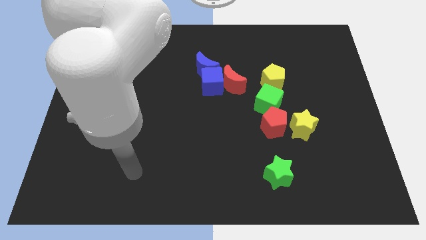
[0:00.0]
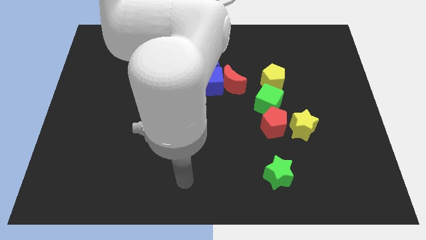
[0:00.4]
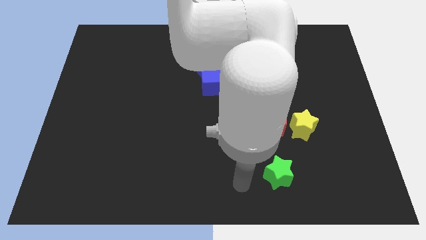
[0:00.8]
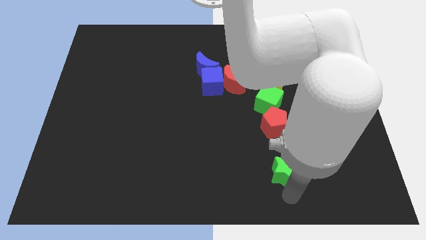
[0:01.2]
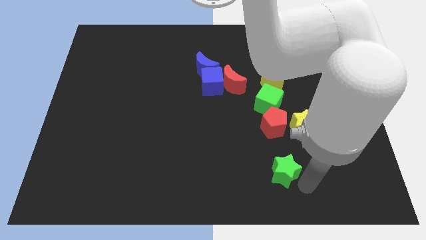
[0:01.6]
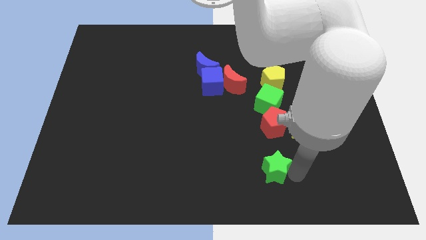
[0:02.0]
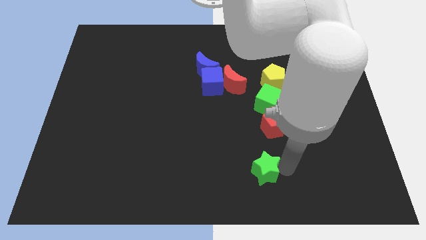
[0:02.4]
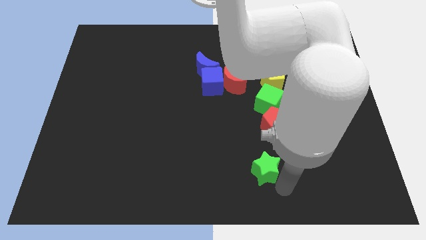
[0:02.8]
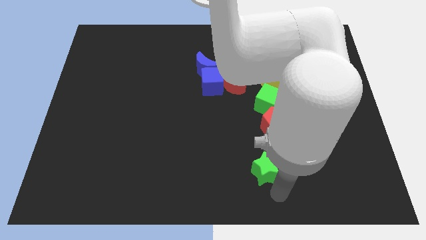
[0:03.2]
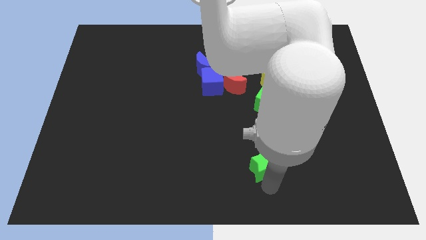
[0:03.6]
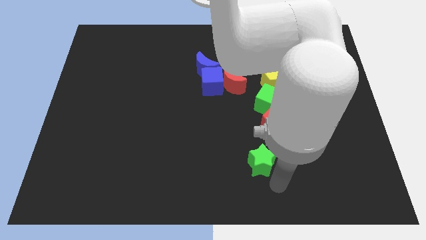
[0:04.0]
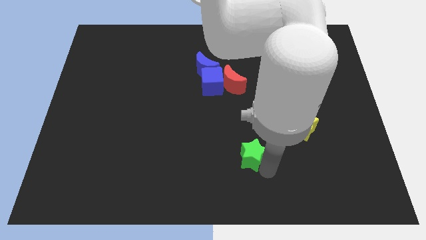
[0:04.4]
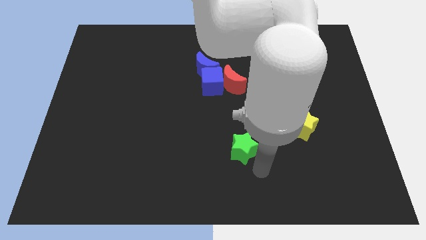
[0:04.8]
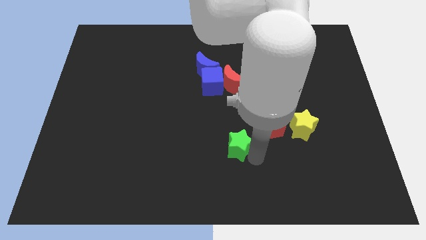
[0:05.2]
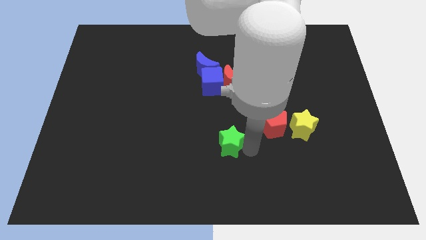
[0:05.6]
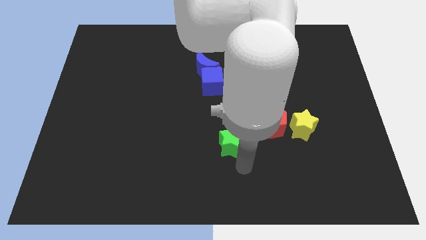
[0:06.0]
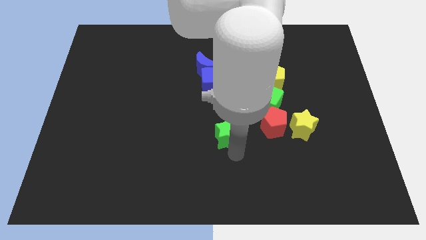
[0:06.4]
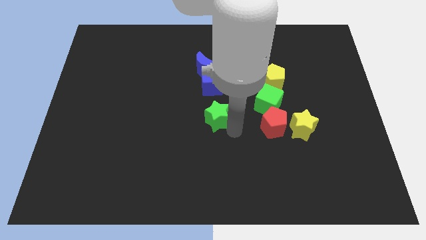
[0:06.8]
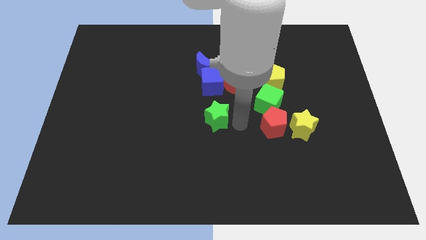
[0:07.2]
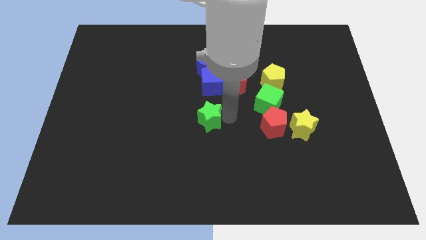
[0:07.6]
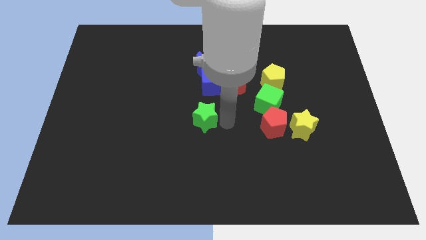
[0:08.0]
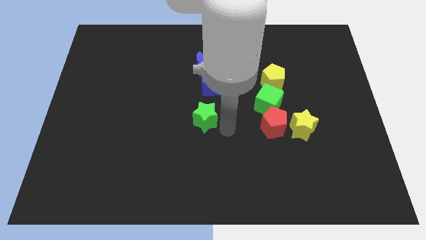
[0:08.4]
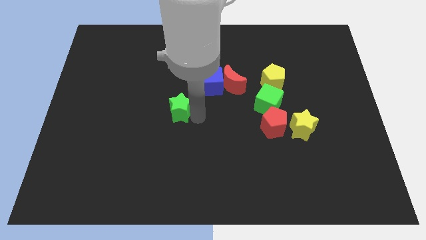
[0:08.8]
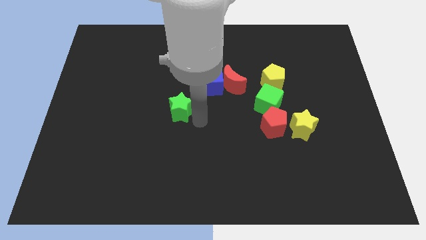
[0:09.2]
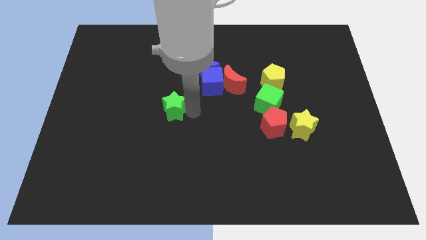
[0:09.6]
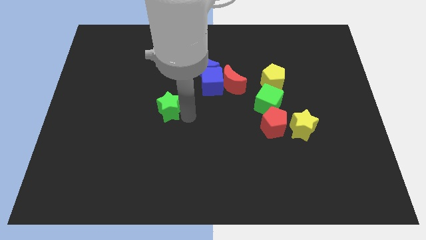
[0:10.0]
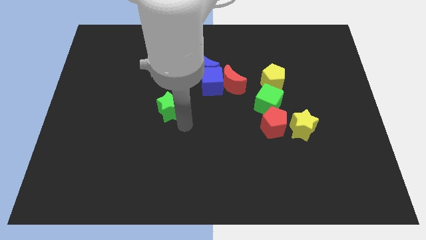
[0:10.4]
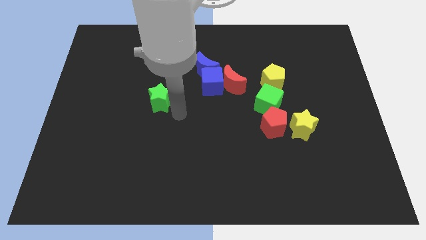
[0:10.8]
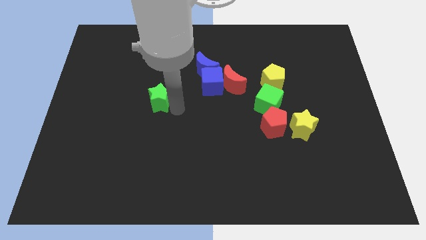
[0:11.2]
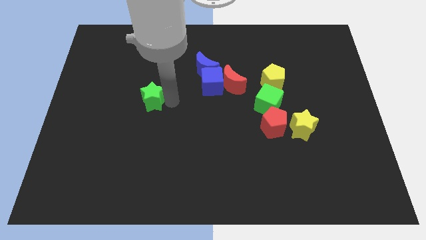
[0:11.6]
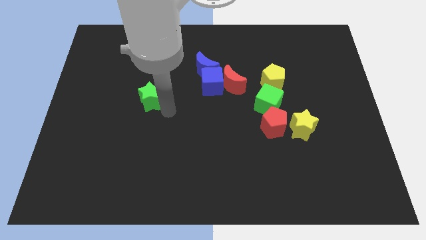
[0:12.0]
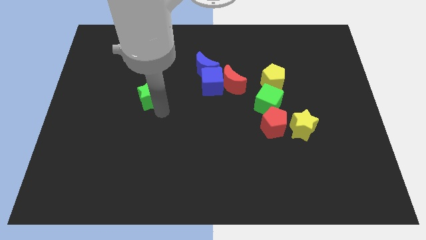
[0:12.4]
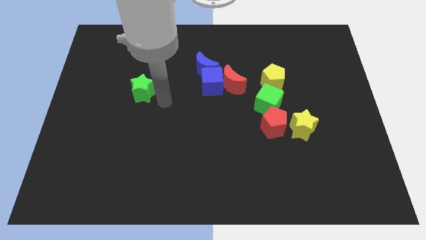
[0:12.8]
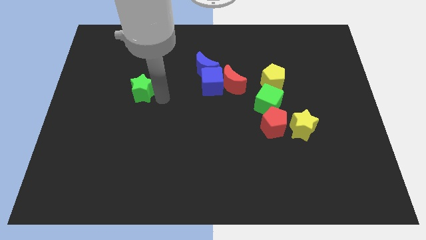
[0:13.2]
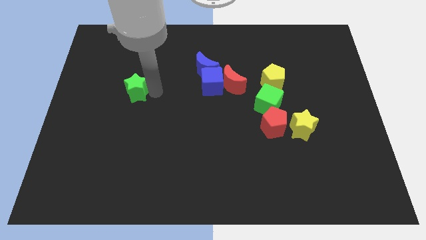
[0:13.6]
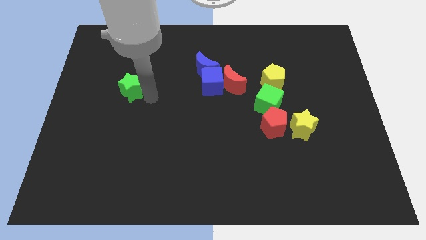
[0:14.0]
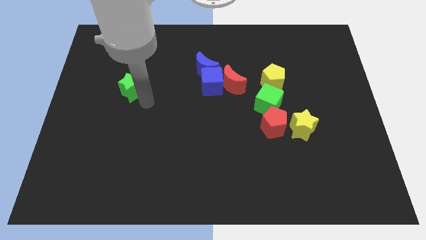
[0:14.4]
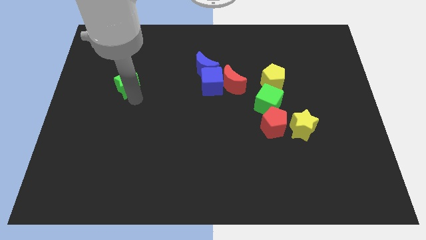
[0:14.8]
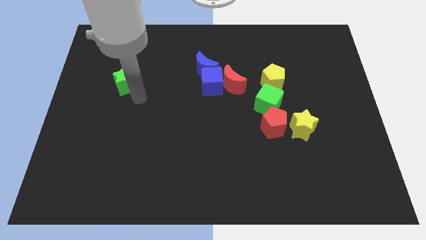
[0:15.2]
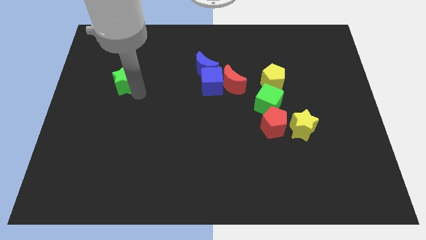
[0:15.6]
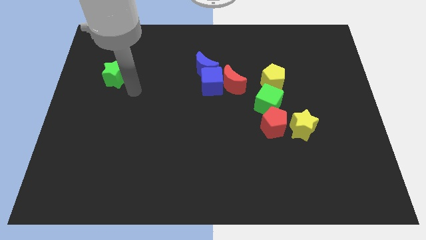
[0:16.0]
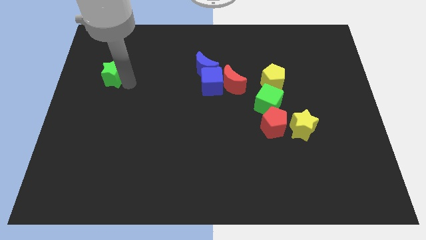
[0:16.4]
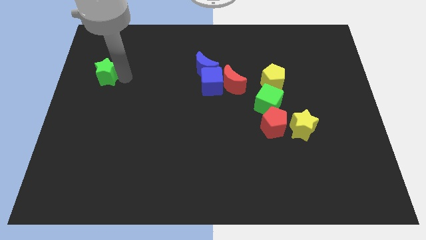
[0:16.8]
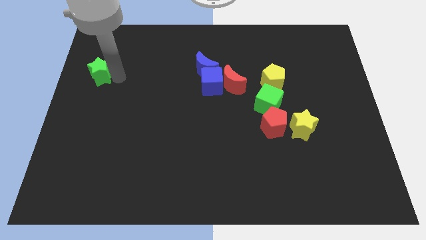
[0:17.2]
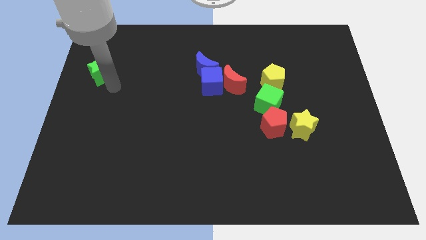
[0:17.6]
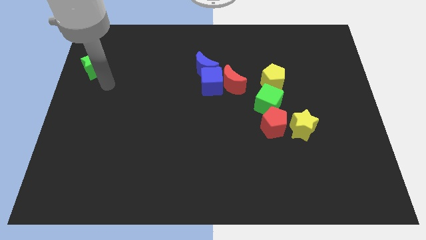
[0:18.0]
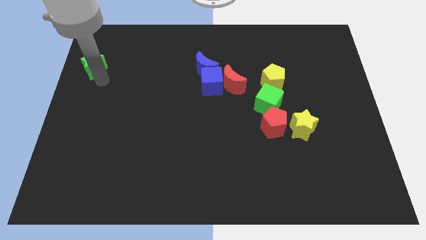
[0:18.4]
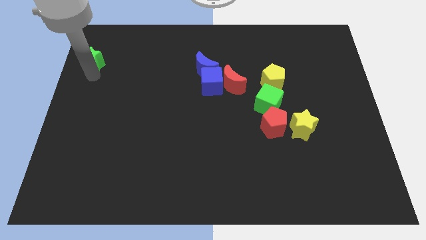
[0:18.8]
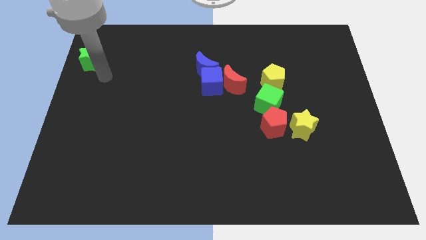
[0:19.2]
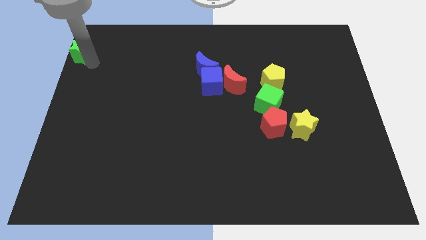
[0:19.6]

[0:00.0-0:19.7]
slide the green star to the top left of the board

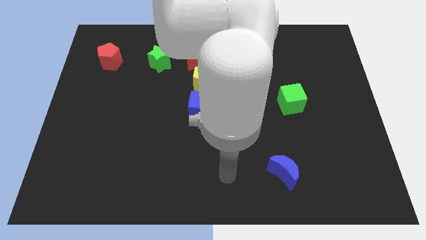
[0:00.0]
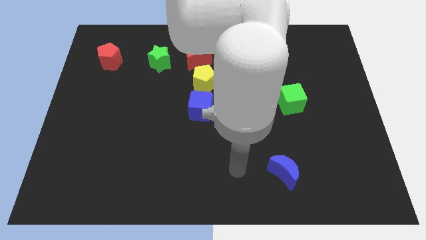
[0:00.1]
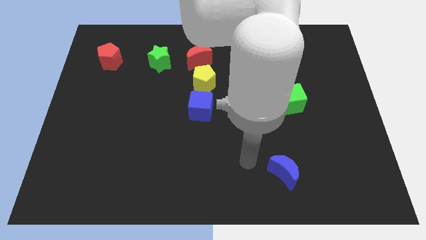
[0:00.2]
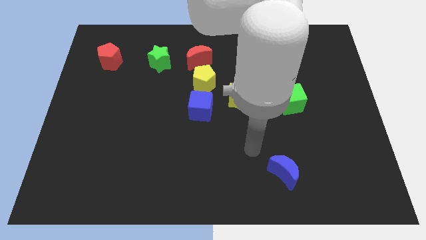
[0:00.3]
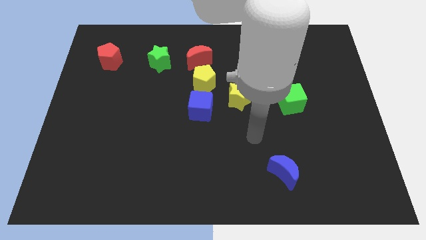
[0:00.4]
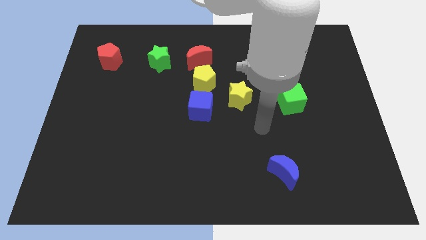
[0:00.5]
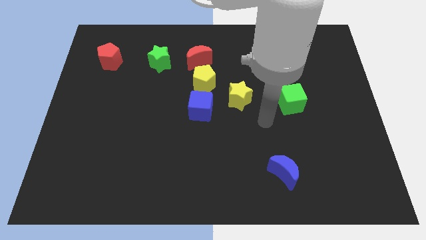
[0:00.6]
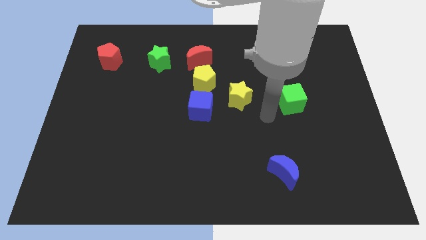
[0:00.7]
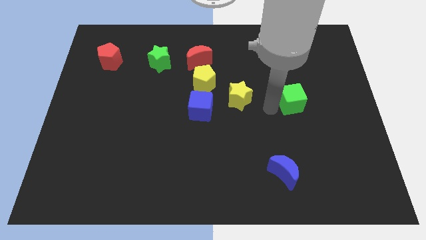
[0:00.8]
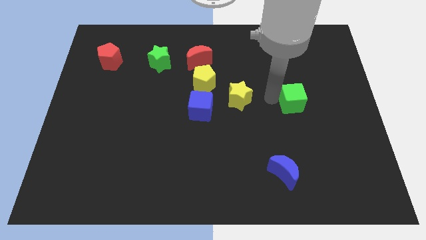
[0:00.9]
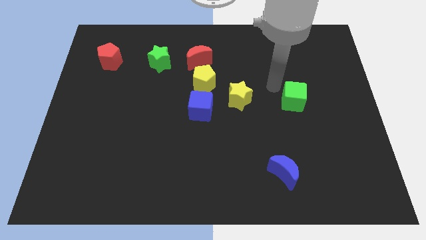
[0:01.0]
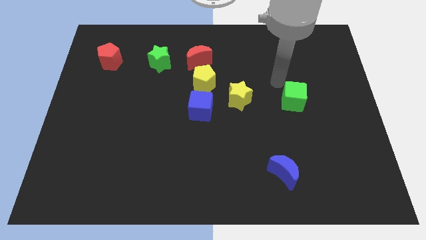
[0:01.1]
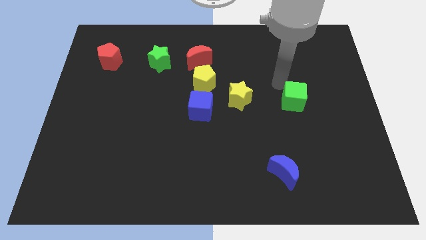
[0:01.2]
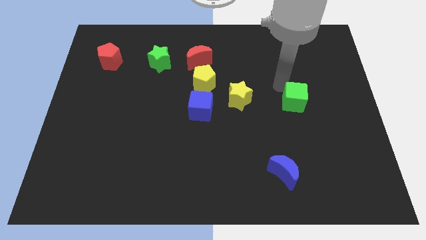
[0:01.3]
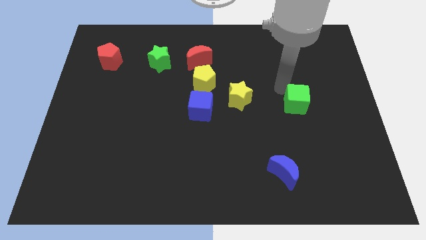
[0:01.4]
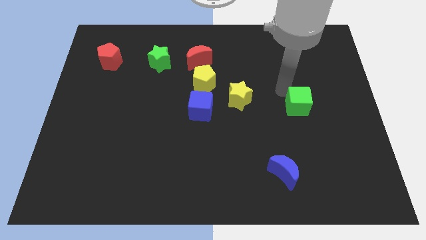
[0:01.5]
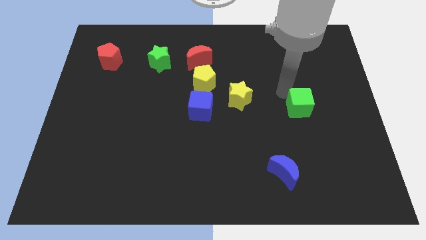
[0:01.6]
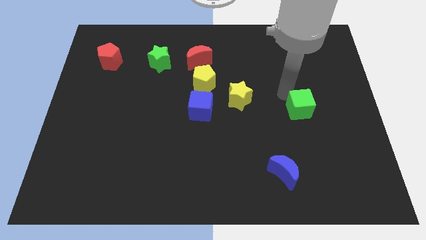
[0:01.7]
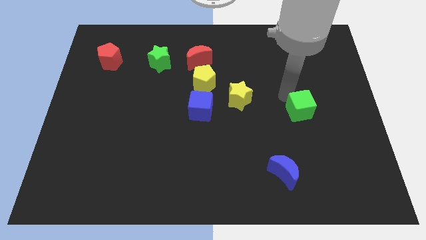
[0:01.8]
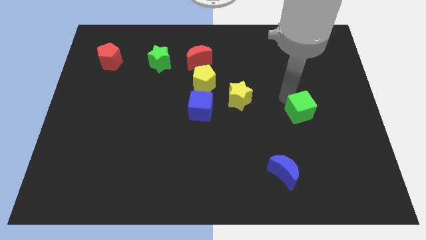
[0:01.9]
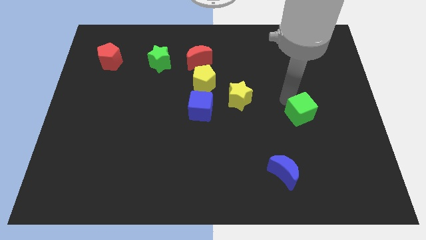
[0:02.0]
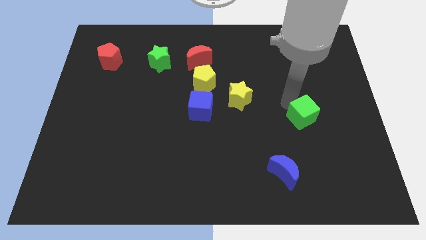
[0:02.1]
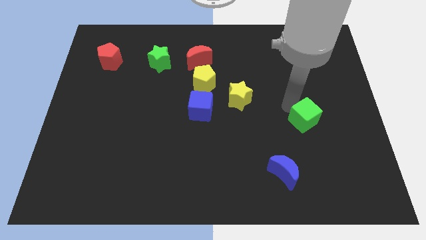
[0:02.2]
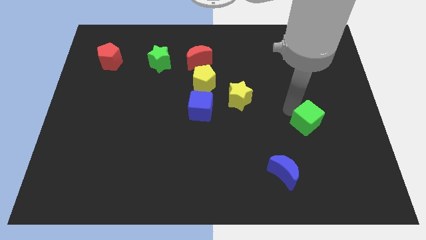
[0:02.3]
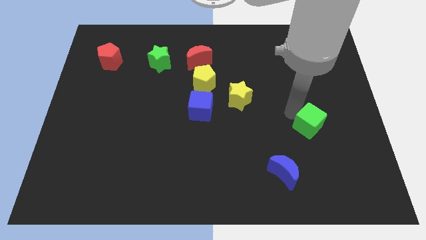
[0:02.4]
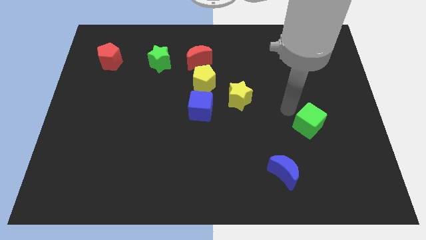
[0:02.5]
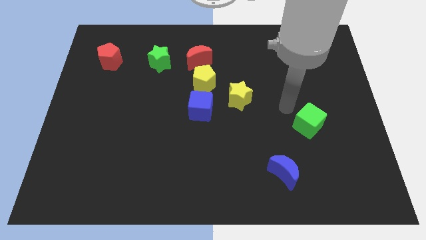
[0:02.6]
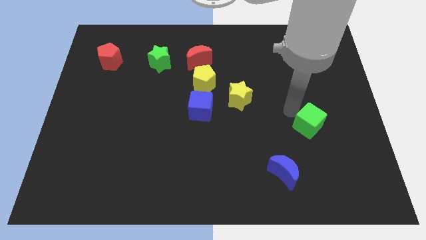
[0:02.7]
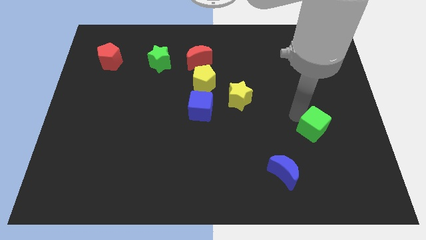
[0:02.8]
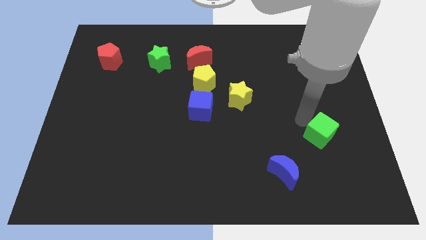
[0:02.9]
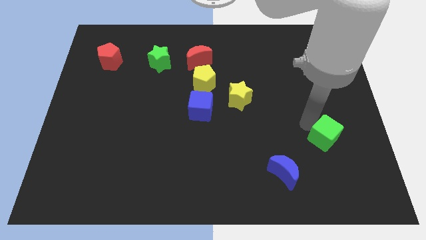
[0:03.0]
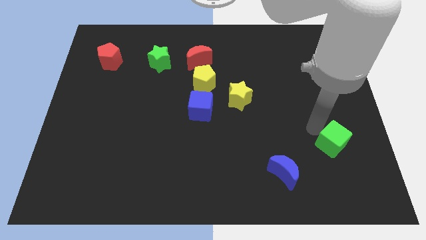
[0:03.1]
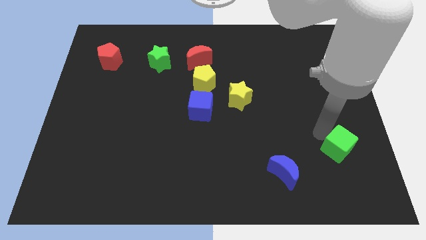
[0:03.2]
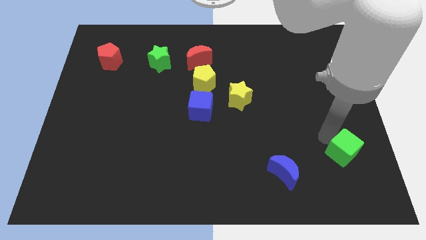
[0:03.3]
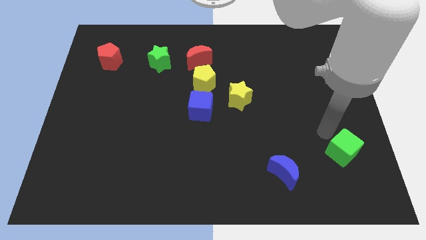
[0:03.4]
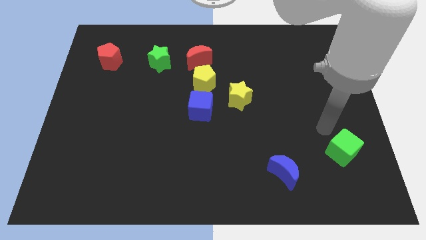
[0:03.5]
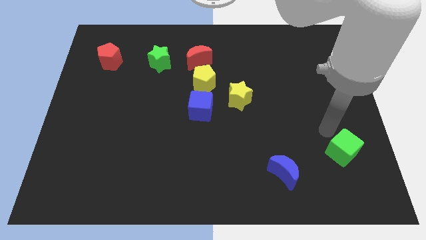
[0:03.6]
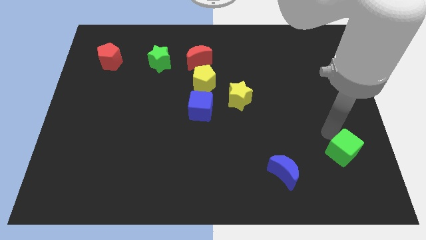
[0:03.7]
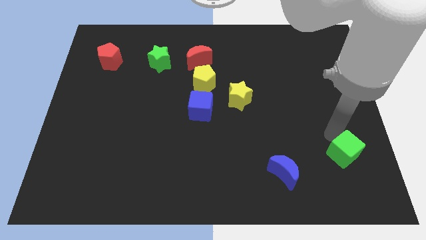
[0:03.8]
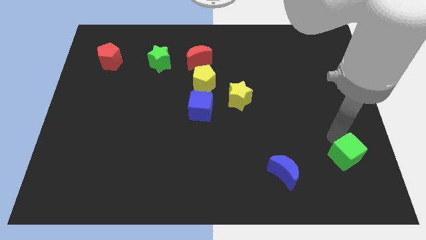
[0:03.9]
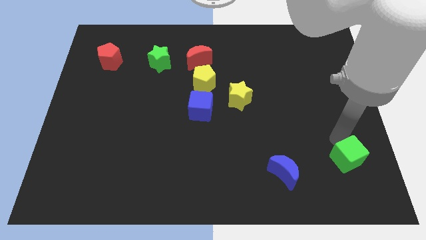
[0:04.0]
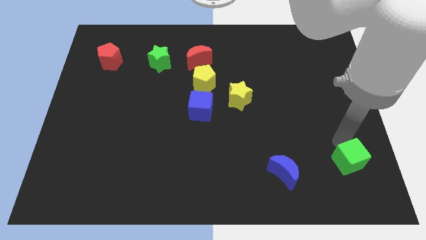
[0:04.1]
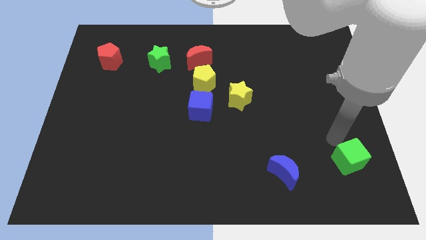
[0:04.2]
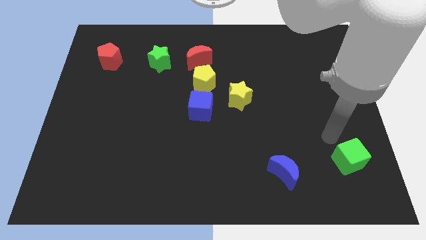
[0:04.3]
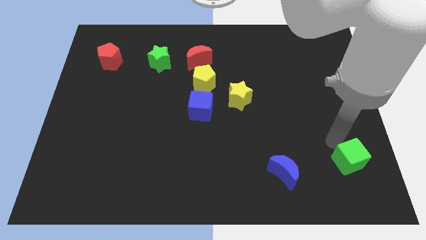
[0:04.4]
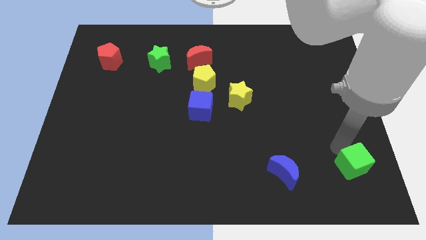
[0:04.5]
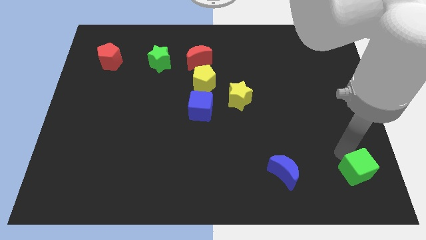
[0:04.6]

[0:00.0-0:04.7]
put the green cube to the bottom right of the board
